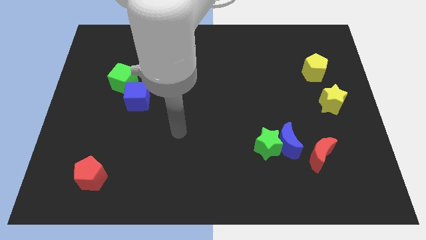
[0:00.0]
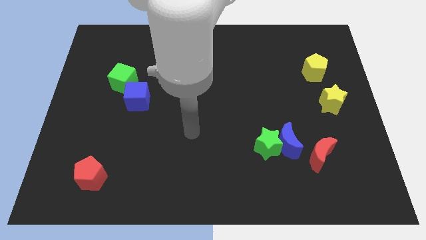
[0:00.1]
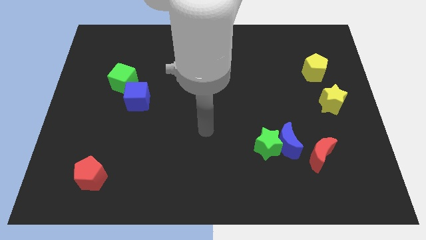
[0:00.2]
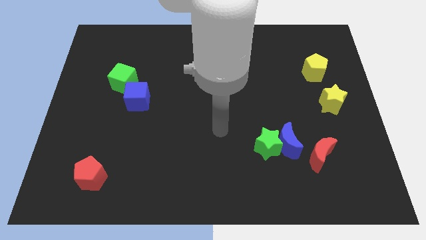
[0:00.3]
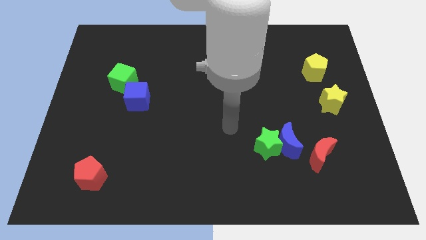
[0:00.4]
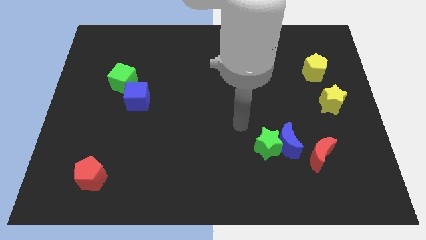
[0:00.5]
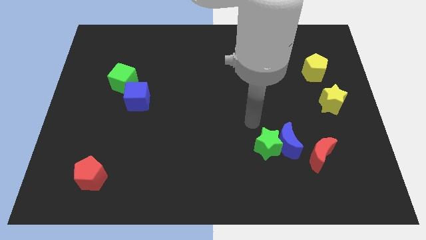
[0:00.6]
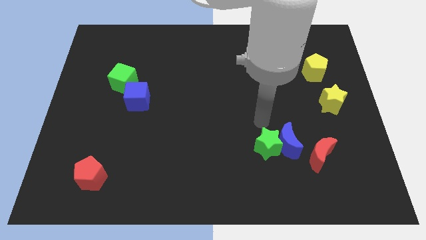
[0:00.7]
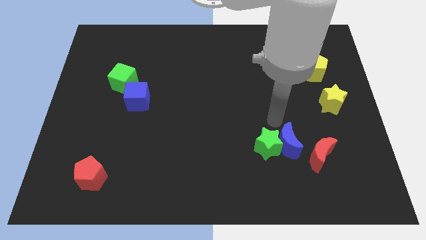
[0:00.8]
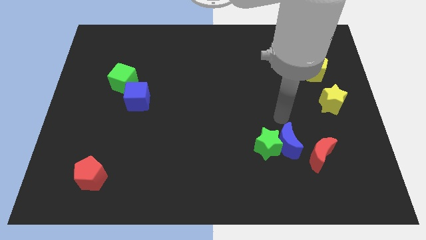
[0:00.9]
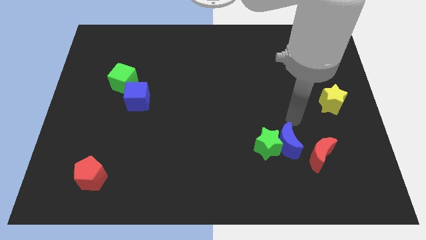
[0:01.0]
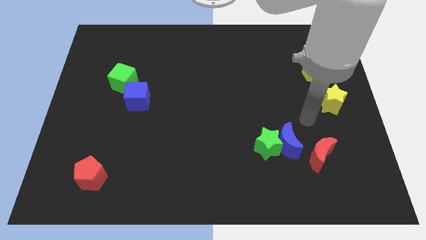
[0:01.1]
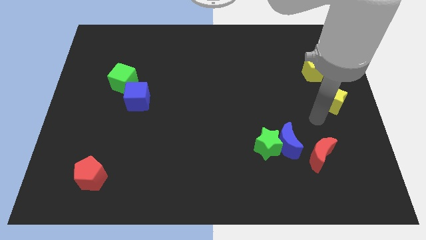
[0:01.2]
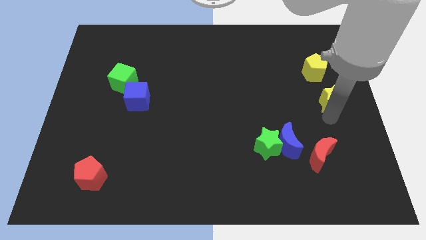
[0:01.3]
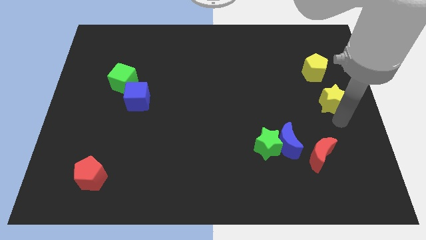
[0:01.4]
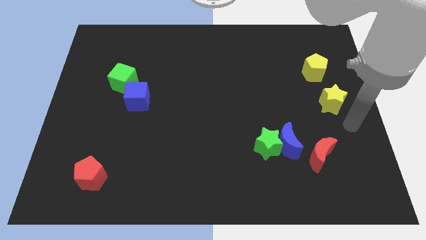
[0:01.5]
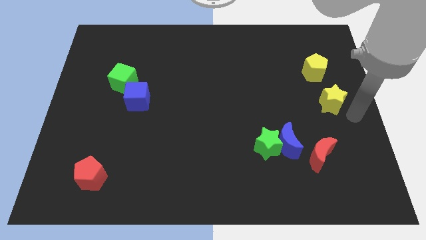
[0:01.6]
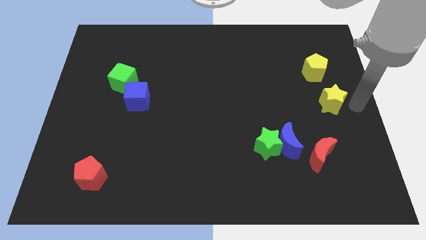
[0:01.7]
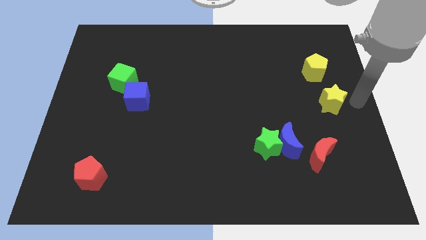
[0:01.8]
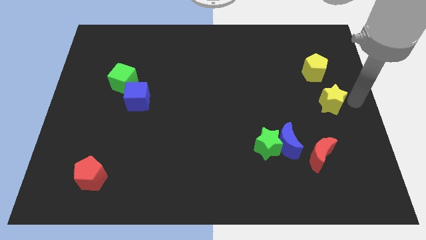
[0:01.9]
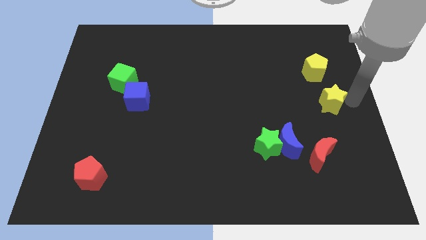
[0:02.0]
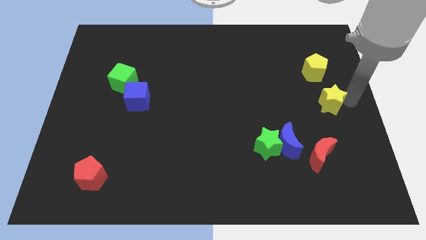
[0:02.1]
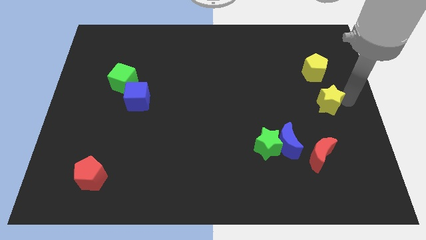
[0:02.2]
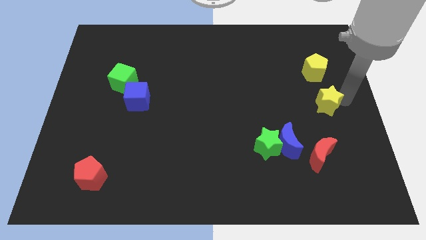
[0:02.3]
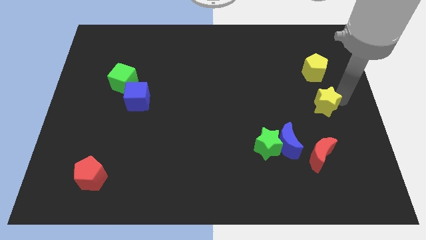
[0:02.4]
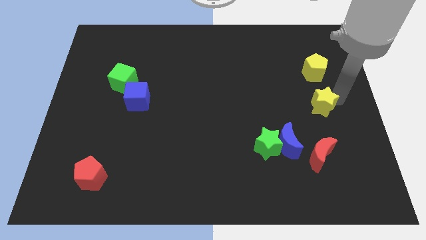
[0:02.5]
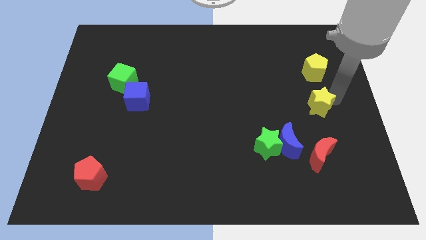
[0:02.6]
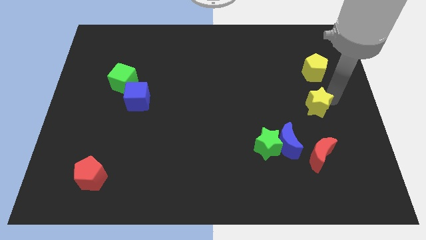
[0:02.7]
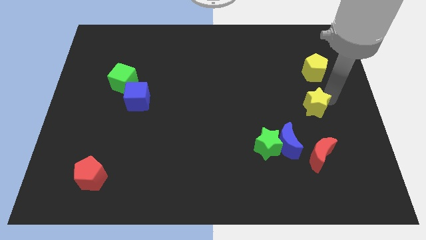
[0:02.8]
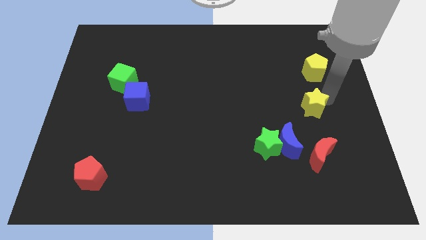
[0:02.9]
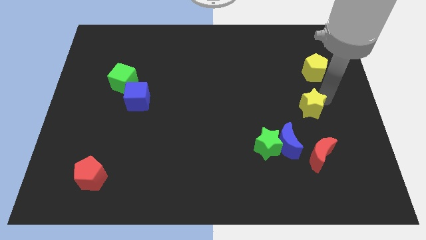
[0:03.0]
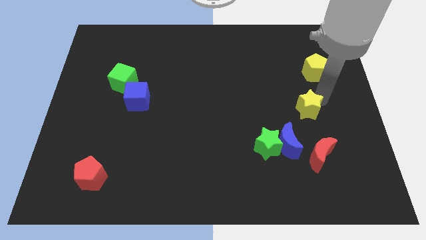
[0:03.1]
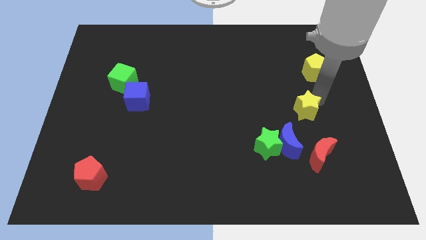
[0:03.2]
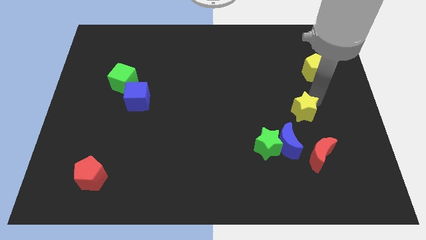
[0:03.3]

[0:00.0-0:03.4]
slide the yellow star to the left a bit

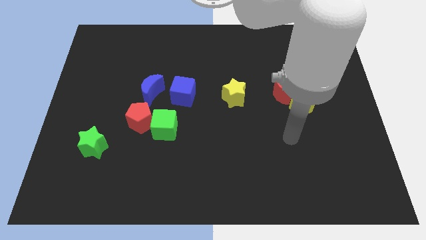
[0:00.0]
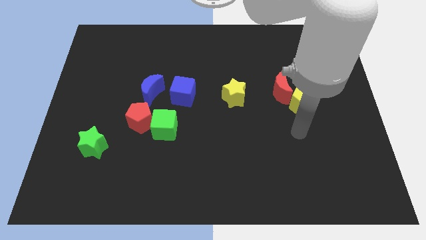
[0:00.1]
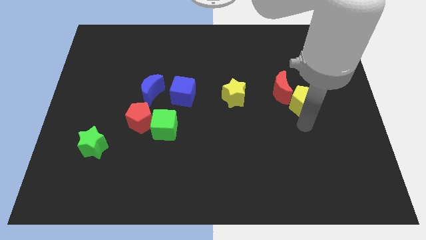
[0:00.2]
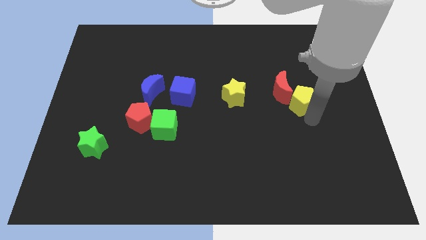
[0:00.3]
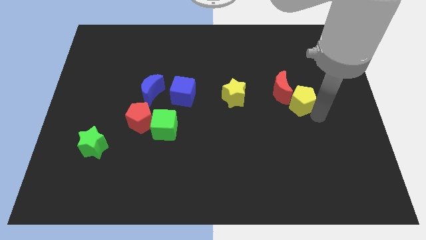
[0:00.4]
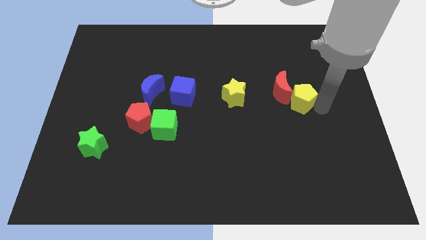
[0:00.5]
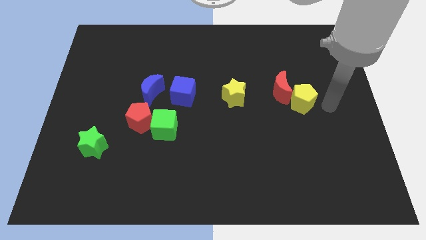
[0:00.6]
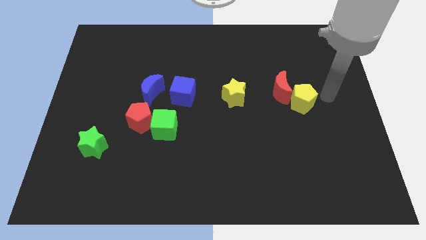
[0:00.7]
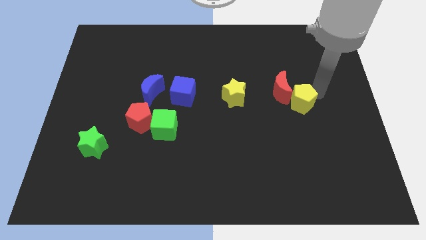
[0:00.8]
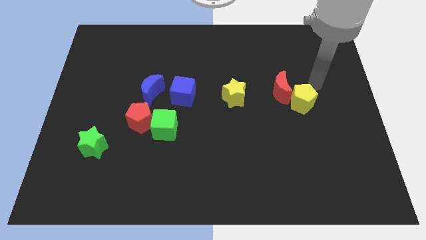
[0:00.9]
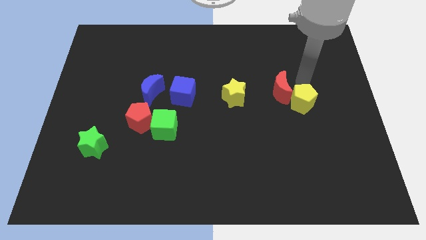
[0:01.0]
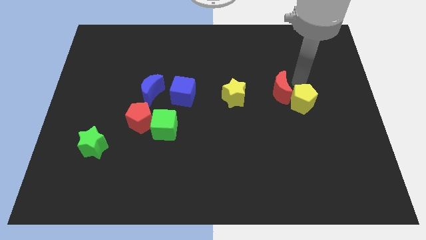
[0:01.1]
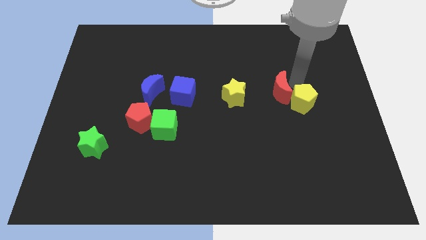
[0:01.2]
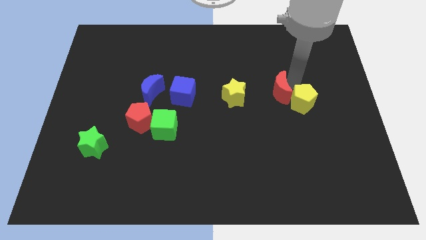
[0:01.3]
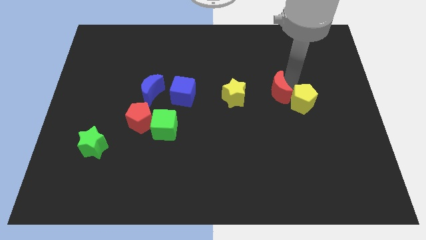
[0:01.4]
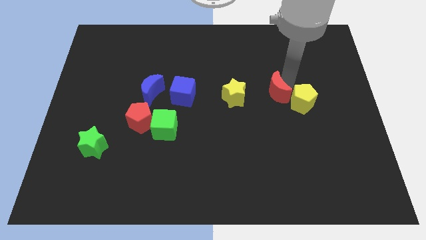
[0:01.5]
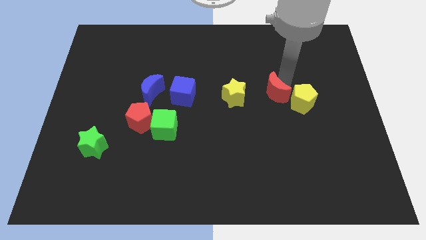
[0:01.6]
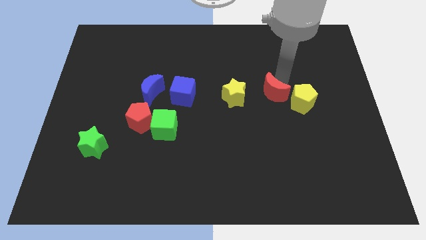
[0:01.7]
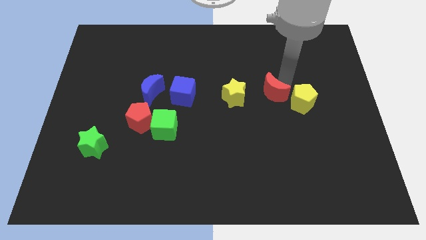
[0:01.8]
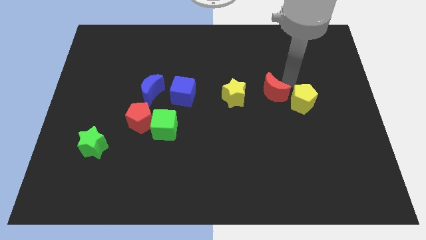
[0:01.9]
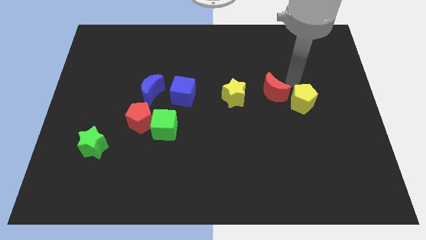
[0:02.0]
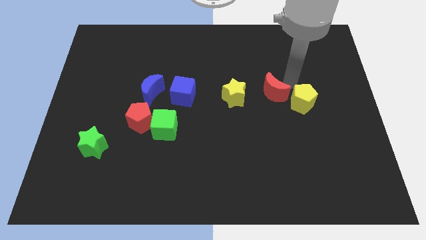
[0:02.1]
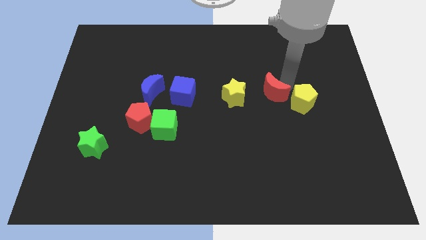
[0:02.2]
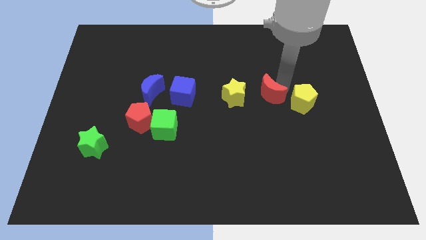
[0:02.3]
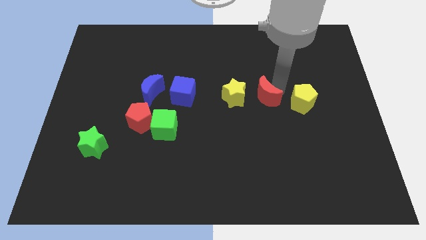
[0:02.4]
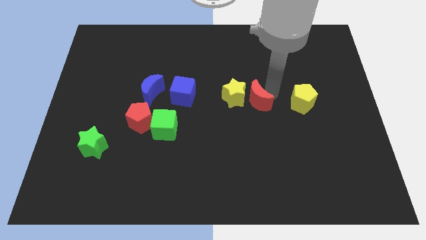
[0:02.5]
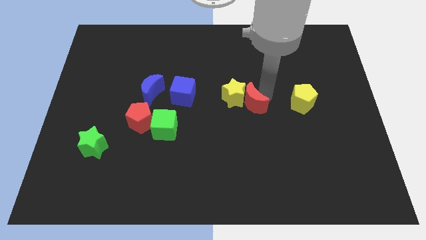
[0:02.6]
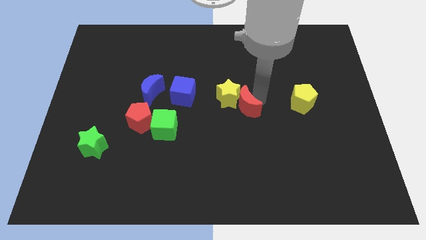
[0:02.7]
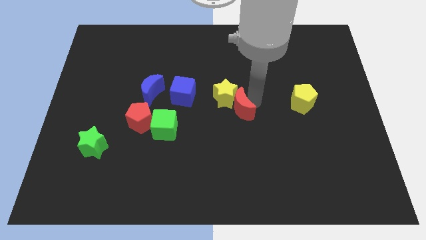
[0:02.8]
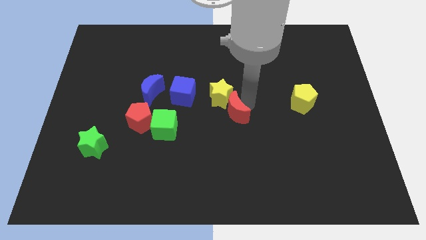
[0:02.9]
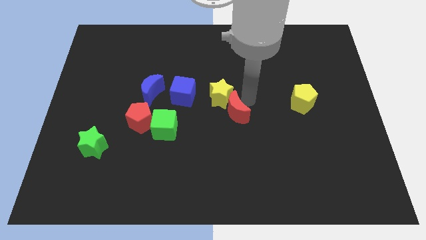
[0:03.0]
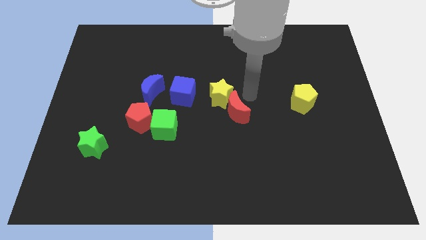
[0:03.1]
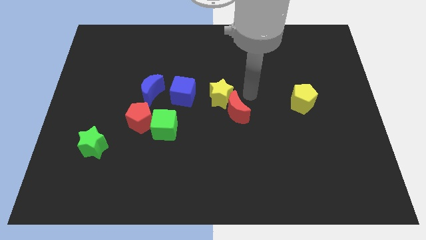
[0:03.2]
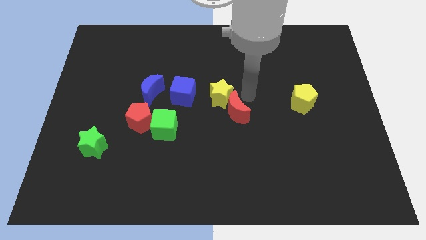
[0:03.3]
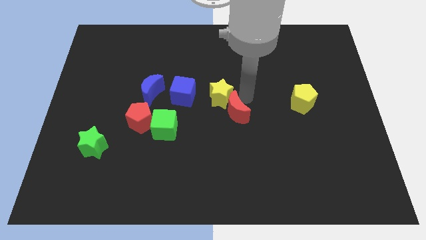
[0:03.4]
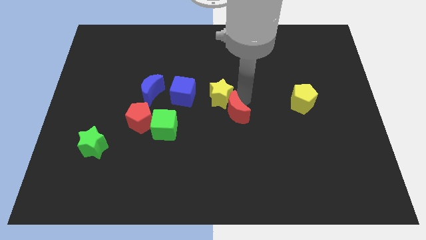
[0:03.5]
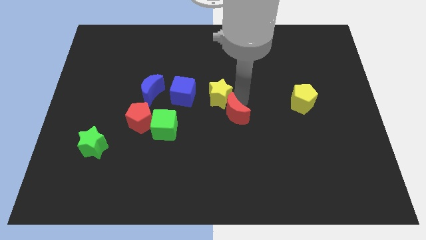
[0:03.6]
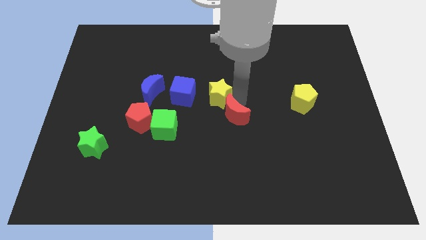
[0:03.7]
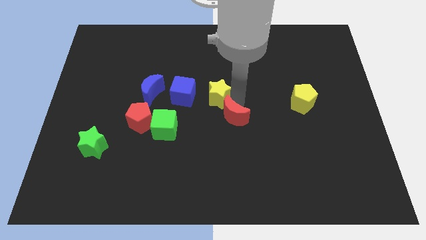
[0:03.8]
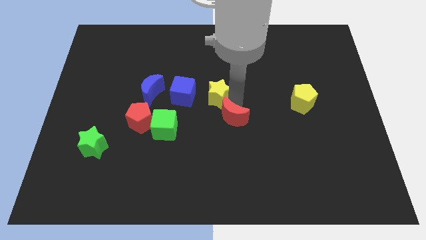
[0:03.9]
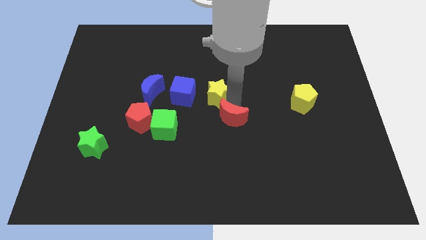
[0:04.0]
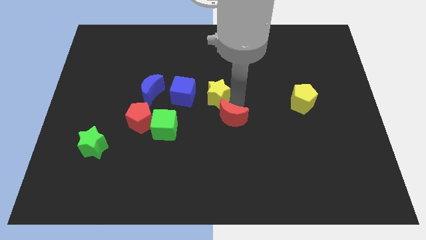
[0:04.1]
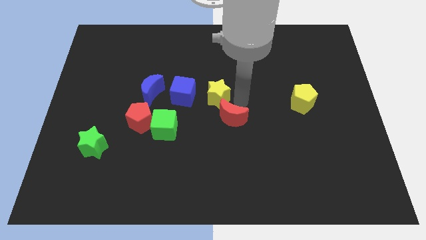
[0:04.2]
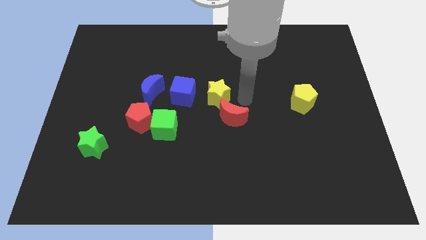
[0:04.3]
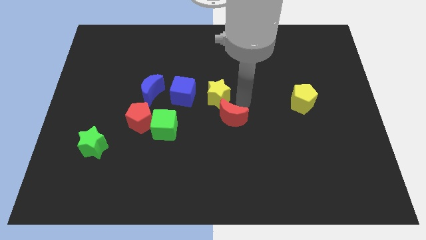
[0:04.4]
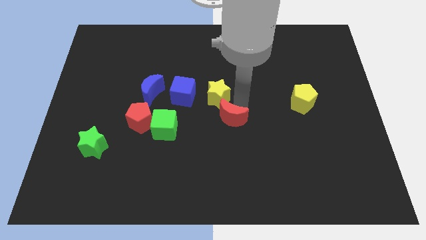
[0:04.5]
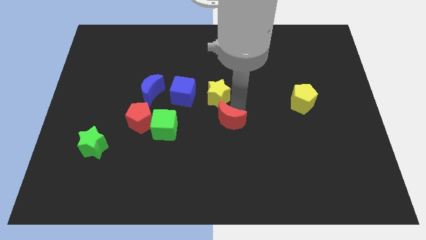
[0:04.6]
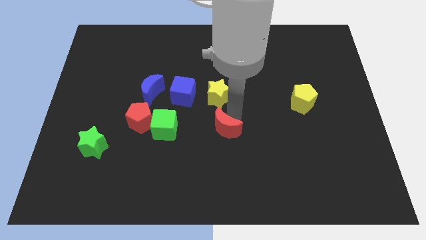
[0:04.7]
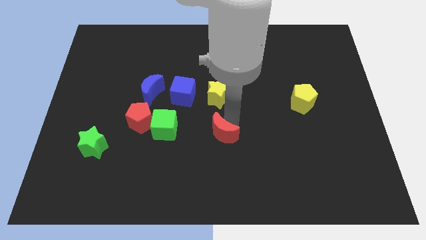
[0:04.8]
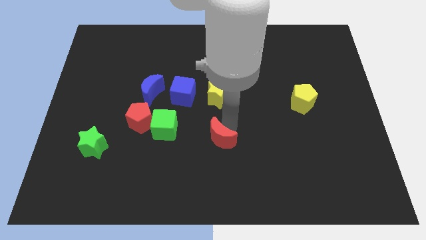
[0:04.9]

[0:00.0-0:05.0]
move the red moon diagonally down and left
